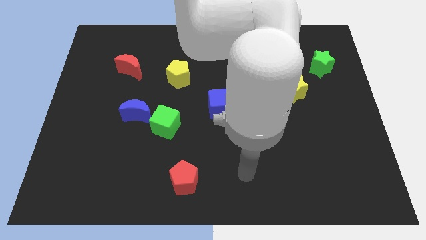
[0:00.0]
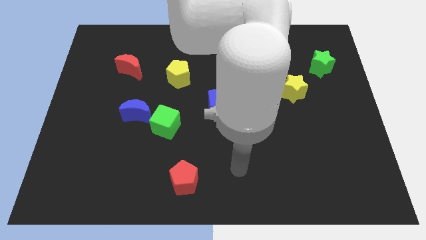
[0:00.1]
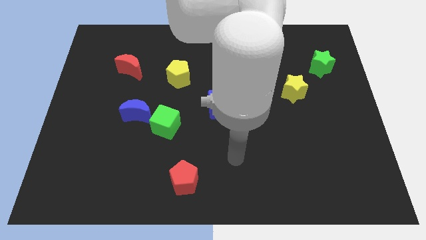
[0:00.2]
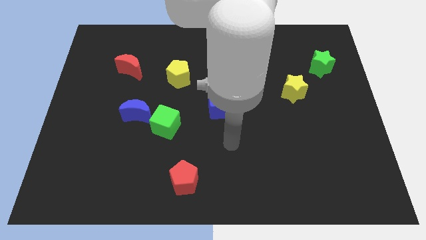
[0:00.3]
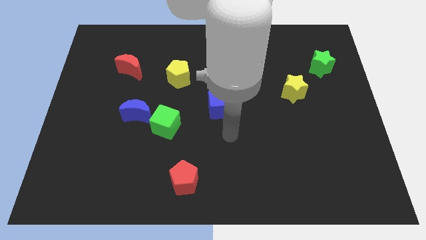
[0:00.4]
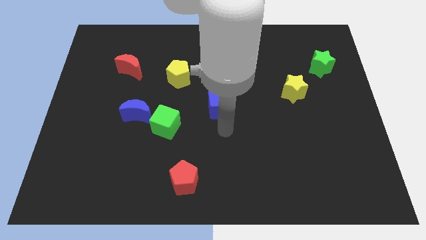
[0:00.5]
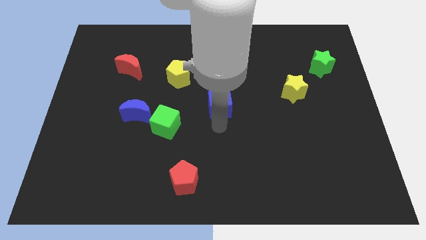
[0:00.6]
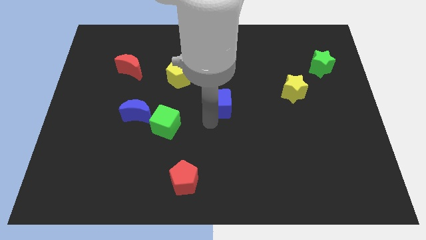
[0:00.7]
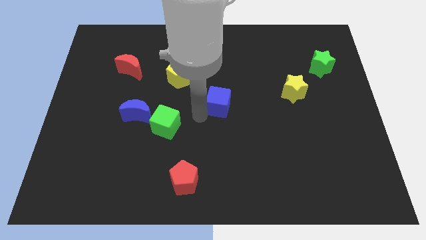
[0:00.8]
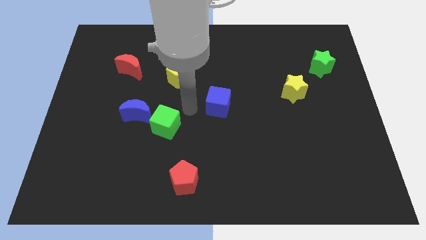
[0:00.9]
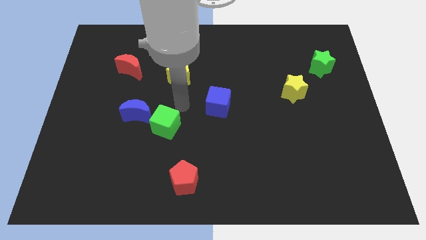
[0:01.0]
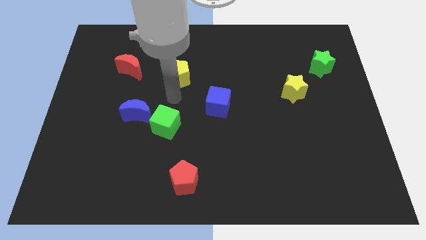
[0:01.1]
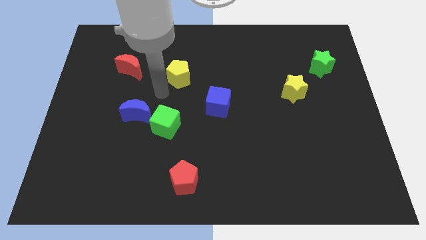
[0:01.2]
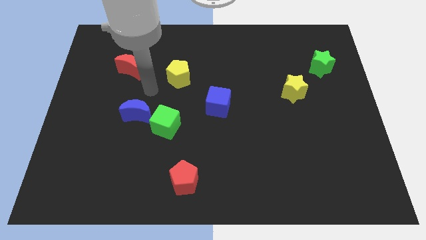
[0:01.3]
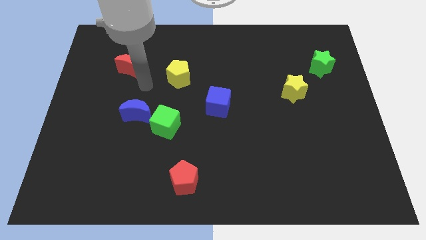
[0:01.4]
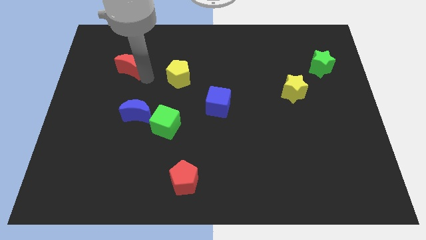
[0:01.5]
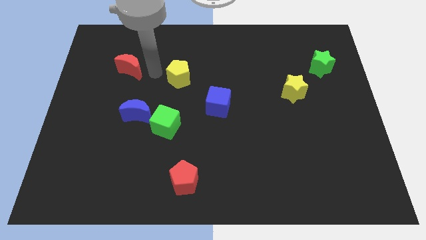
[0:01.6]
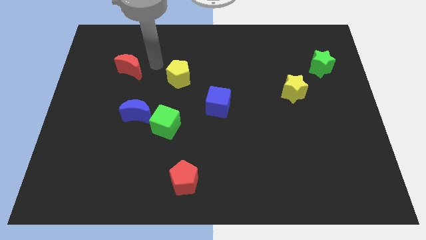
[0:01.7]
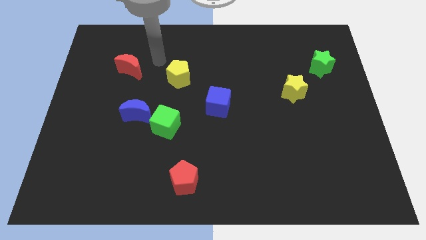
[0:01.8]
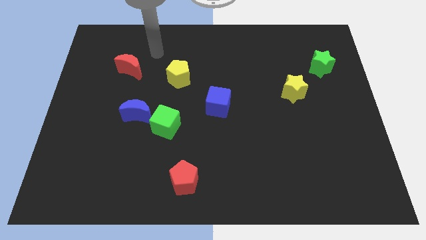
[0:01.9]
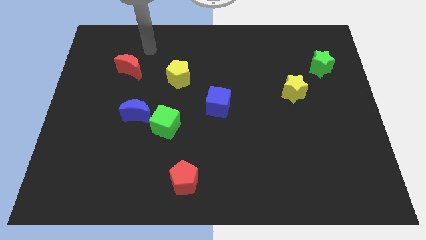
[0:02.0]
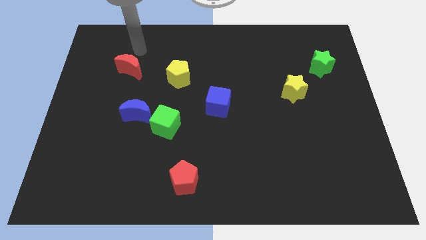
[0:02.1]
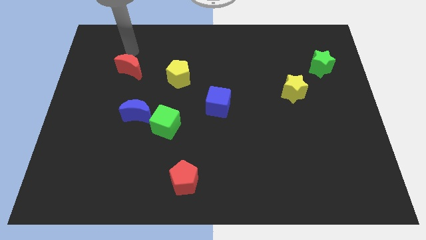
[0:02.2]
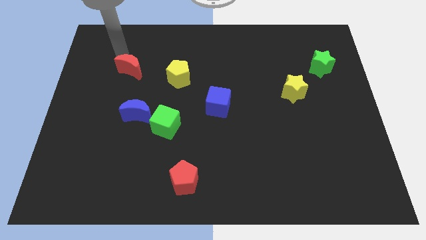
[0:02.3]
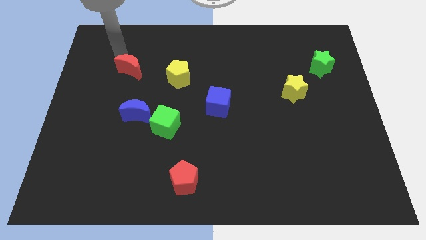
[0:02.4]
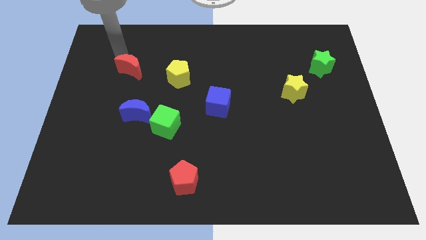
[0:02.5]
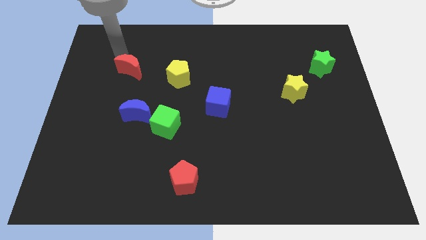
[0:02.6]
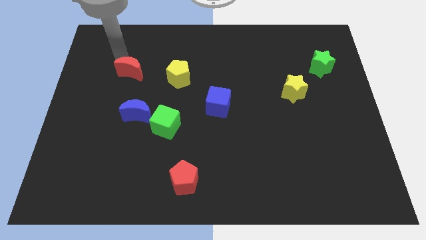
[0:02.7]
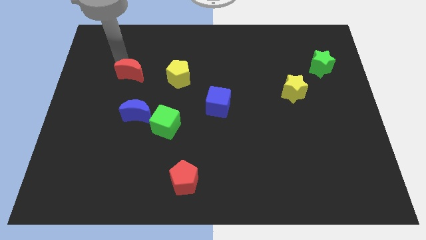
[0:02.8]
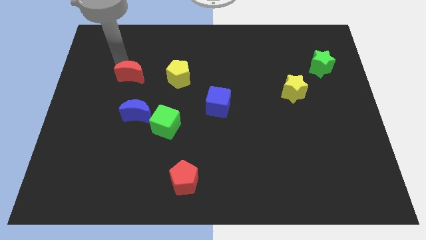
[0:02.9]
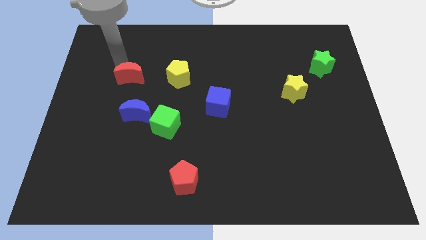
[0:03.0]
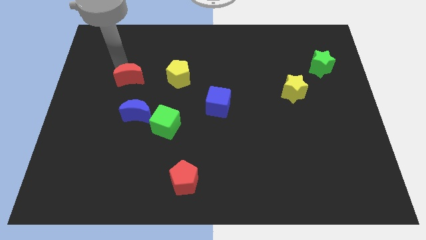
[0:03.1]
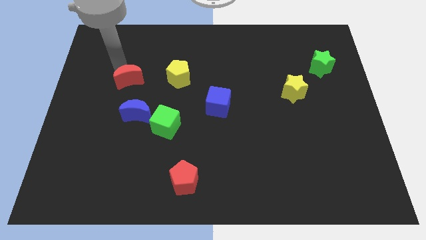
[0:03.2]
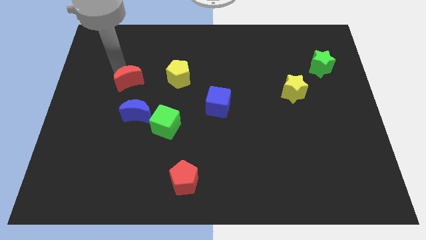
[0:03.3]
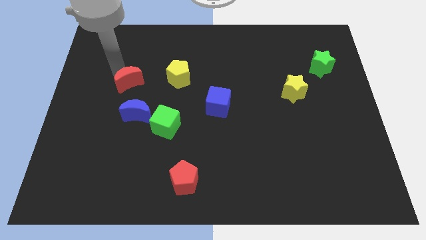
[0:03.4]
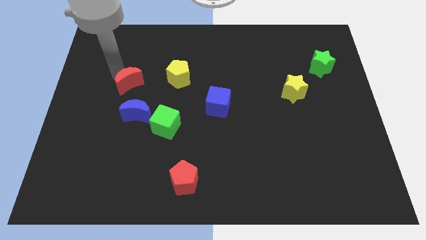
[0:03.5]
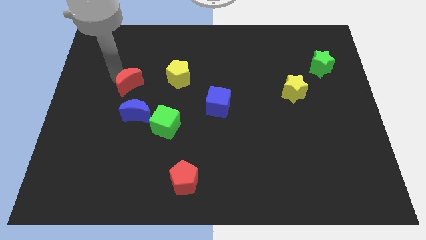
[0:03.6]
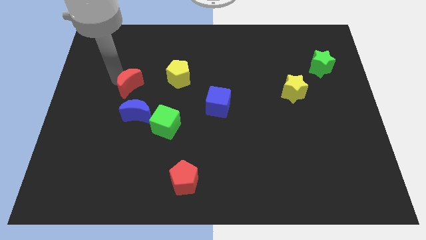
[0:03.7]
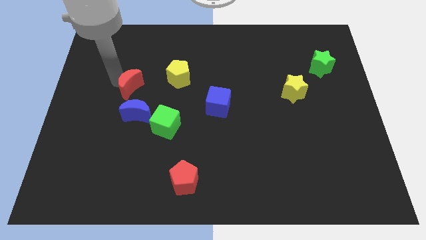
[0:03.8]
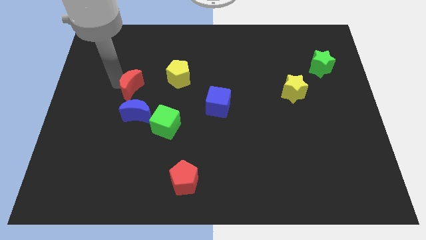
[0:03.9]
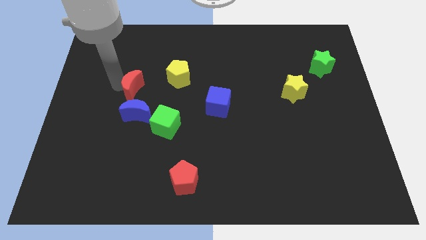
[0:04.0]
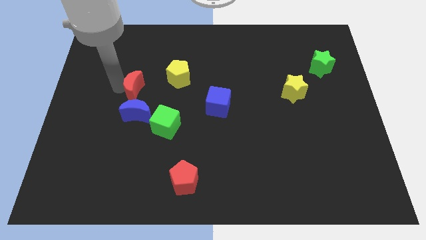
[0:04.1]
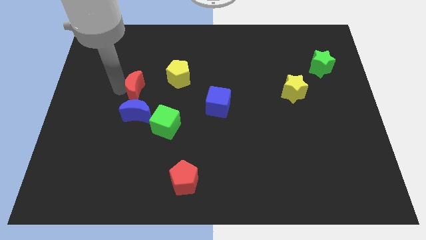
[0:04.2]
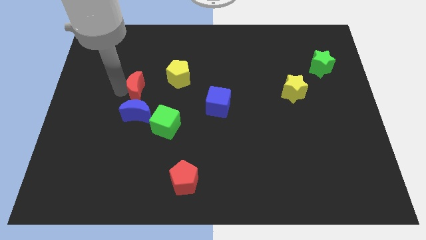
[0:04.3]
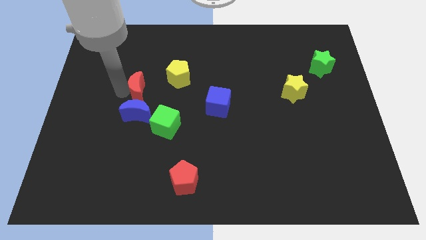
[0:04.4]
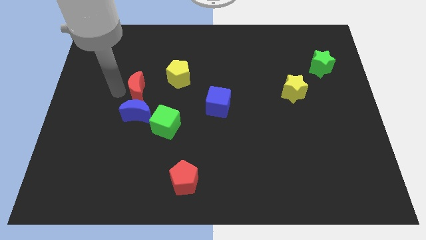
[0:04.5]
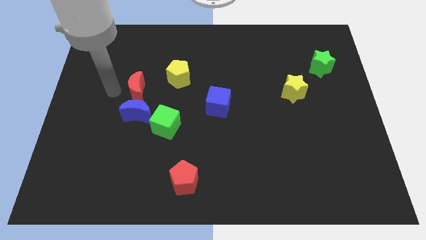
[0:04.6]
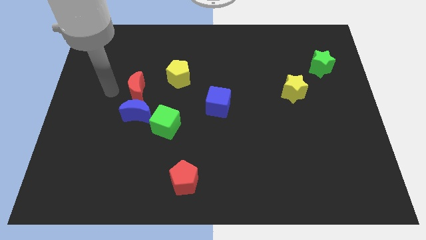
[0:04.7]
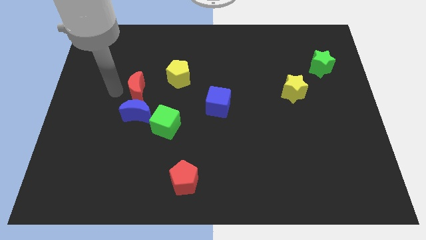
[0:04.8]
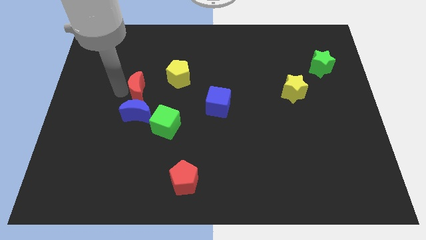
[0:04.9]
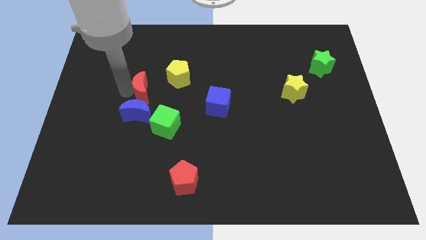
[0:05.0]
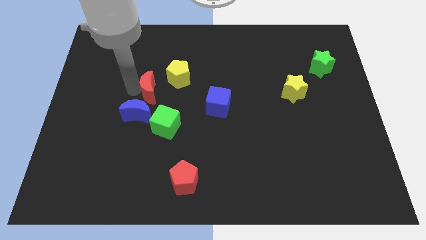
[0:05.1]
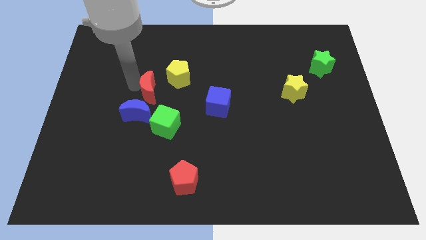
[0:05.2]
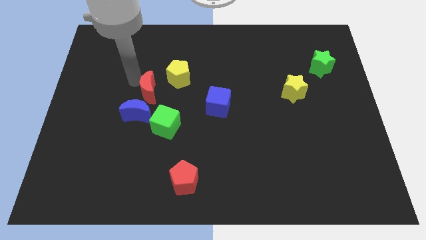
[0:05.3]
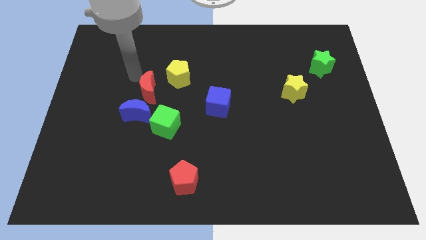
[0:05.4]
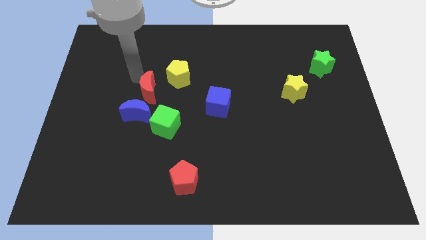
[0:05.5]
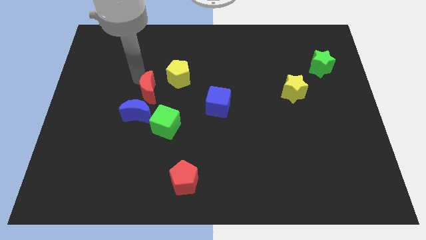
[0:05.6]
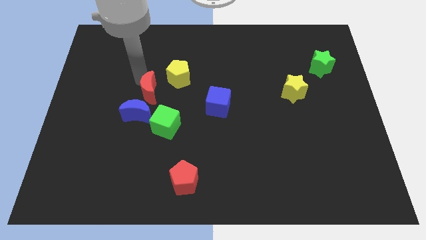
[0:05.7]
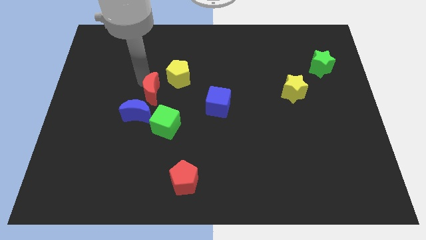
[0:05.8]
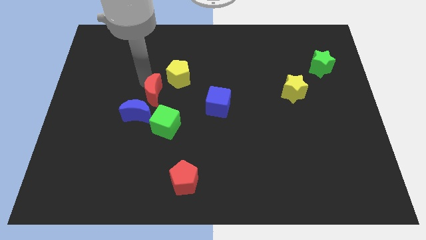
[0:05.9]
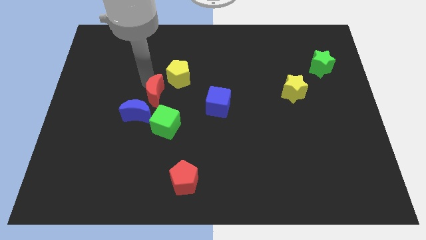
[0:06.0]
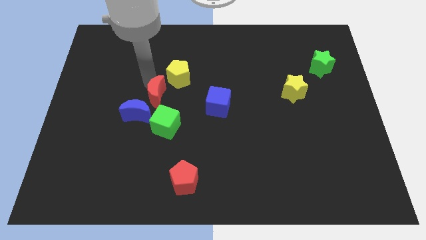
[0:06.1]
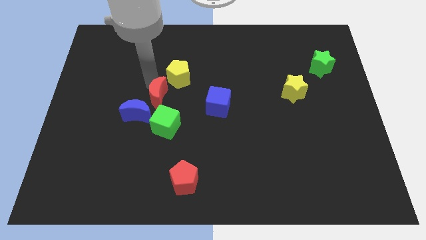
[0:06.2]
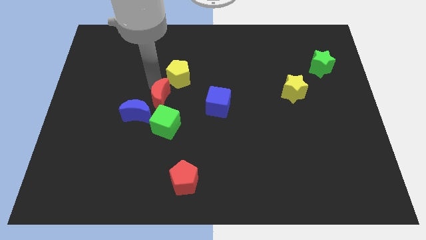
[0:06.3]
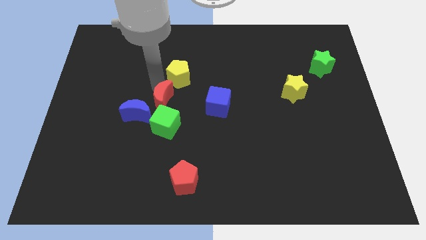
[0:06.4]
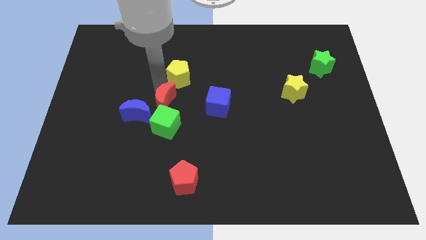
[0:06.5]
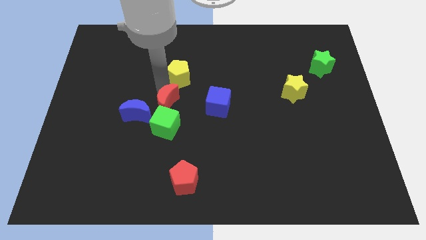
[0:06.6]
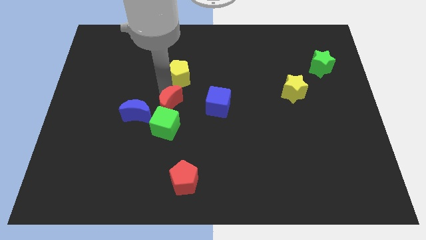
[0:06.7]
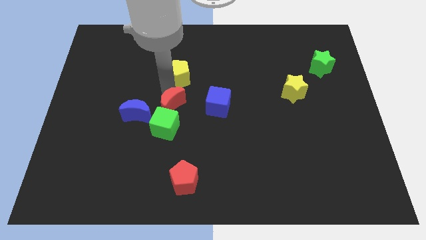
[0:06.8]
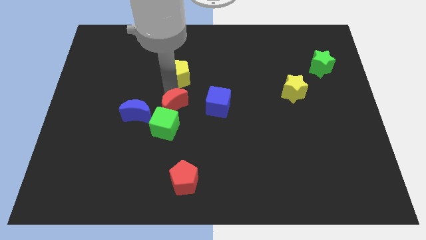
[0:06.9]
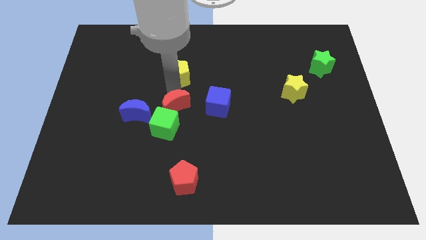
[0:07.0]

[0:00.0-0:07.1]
put the red moon next to the green cube

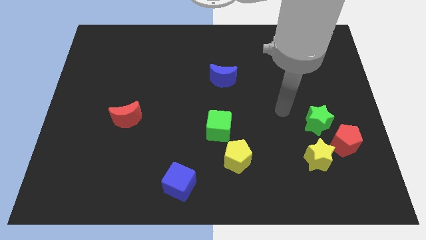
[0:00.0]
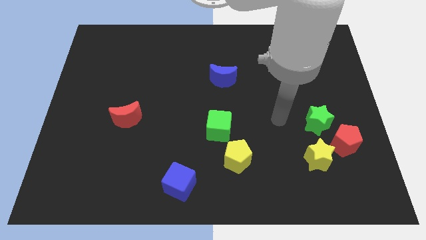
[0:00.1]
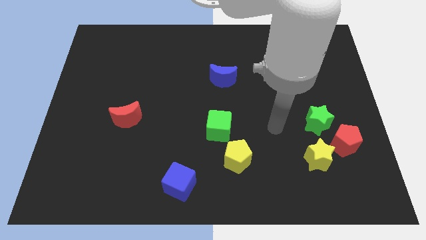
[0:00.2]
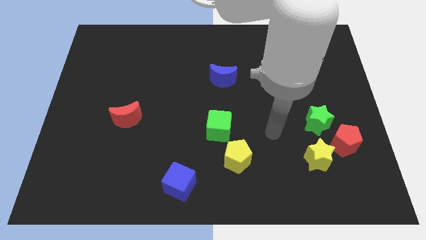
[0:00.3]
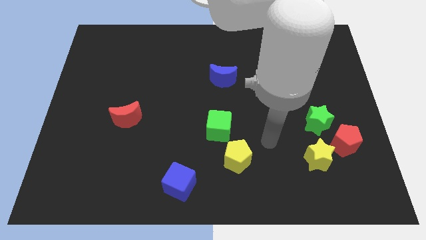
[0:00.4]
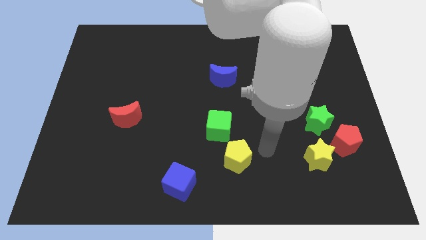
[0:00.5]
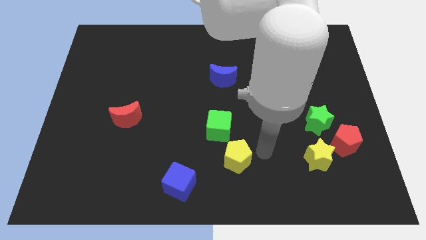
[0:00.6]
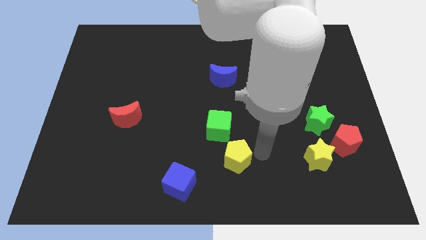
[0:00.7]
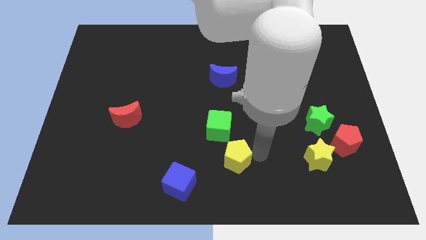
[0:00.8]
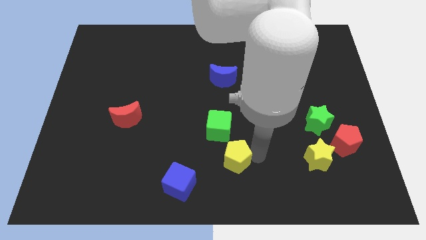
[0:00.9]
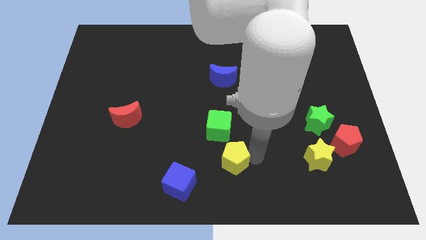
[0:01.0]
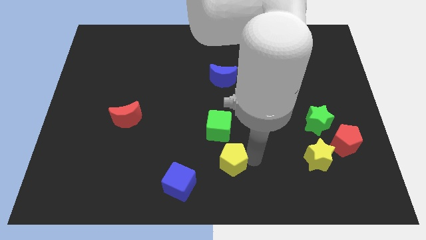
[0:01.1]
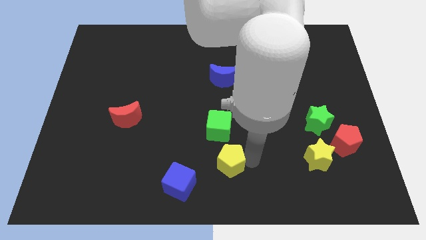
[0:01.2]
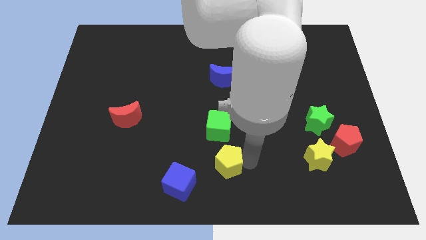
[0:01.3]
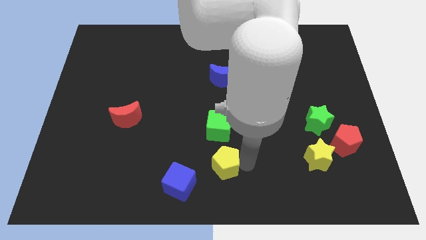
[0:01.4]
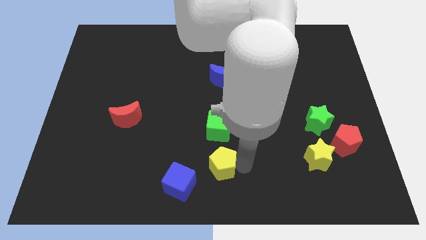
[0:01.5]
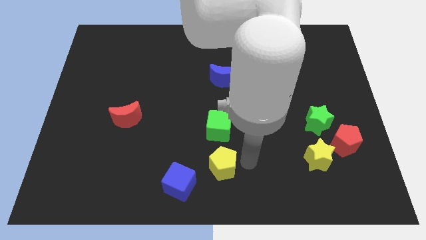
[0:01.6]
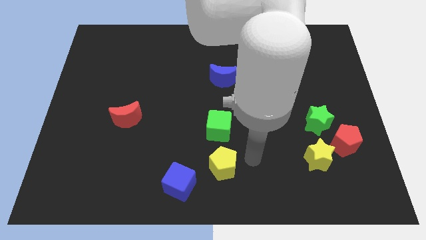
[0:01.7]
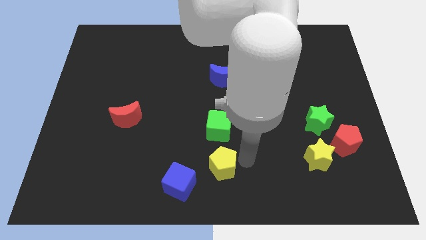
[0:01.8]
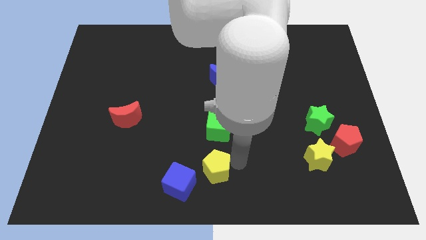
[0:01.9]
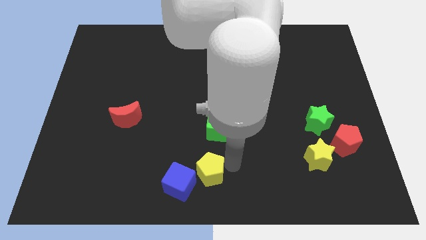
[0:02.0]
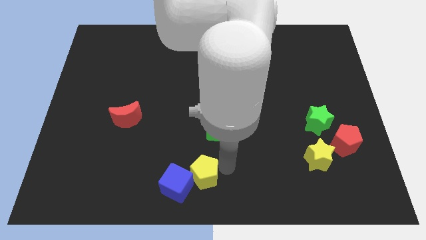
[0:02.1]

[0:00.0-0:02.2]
put the yellow pentagon next to the blue cube
